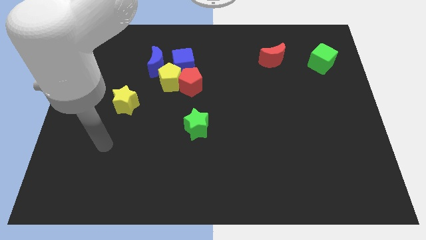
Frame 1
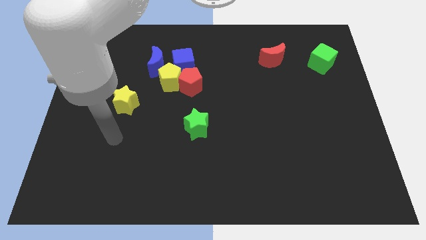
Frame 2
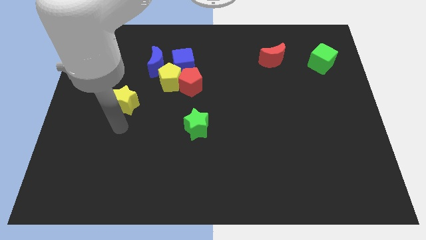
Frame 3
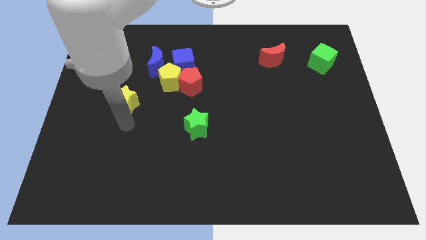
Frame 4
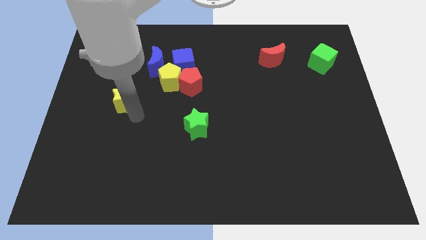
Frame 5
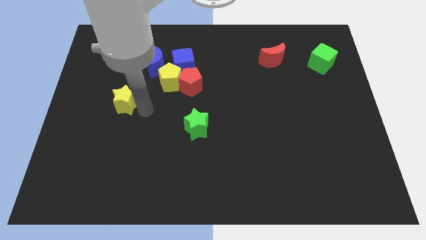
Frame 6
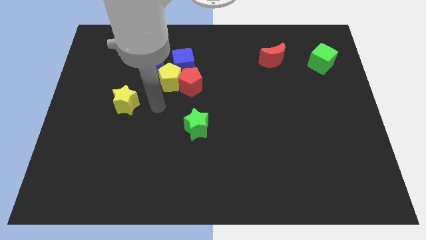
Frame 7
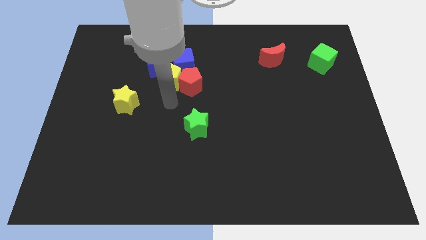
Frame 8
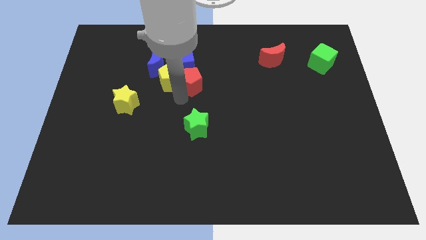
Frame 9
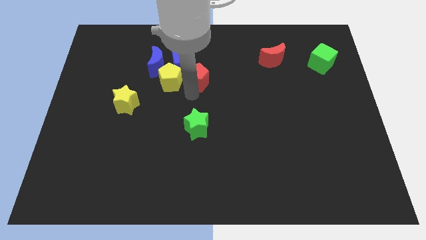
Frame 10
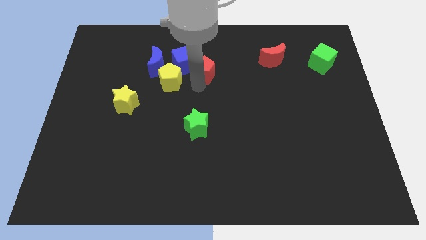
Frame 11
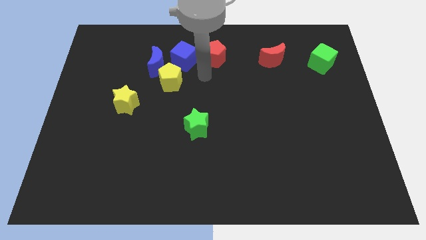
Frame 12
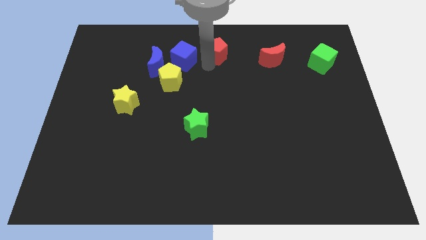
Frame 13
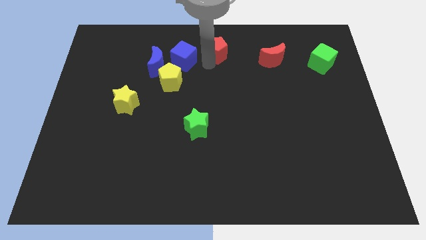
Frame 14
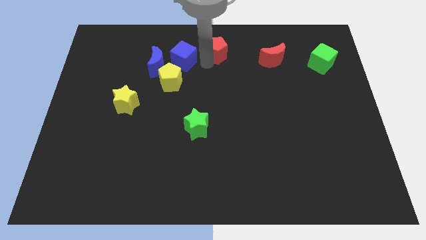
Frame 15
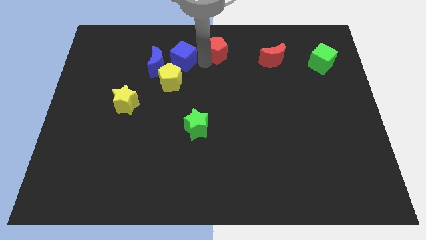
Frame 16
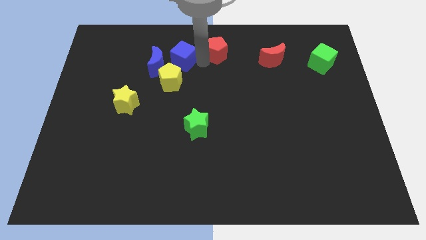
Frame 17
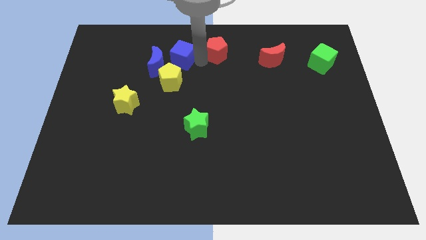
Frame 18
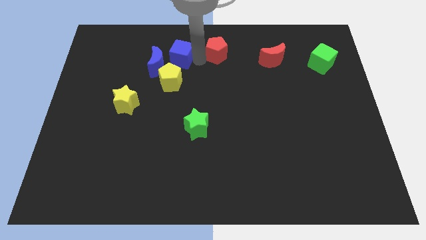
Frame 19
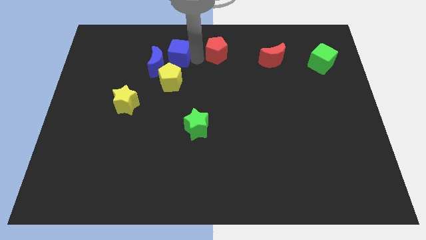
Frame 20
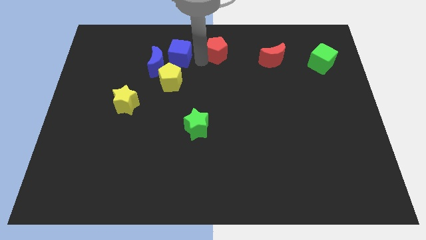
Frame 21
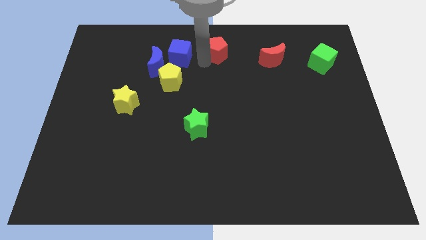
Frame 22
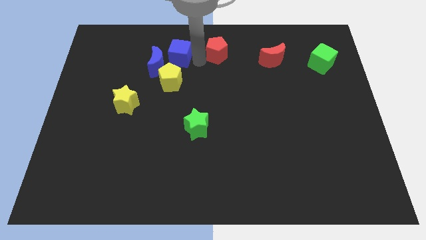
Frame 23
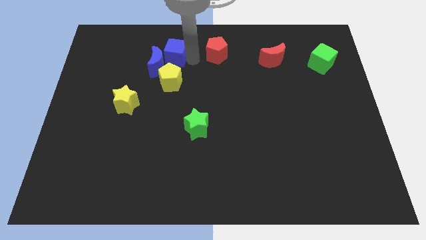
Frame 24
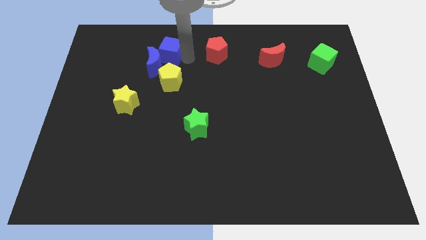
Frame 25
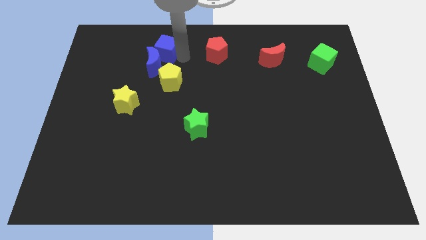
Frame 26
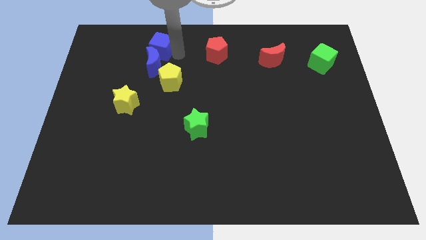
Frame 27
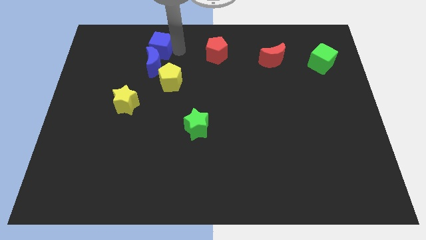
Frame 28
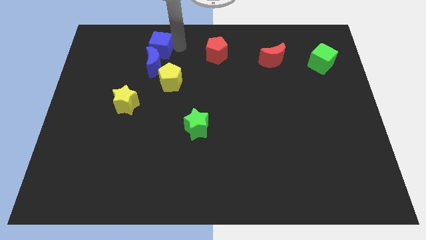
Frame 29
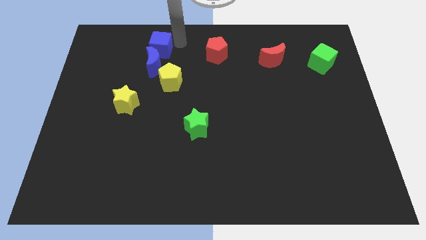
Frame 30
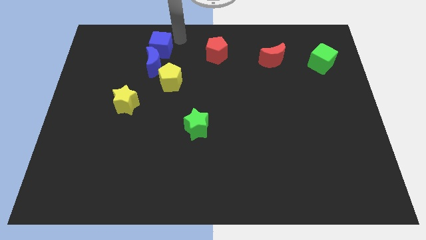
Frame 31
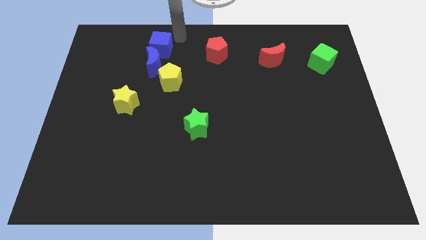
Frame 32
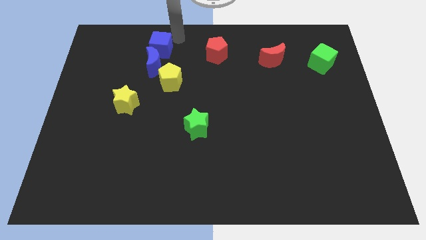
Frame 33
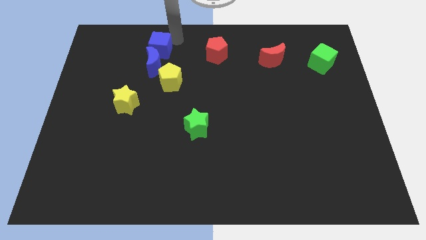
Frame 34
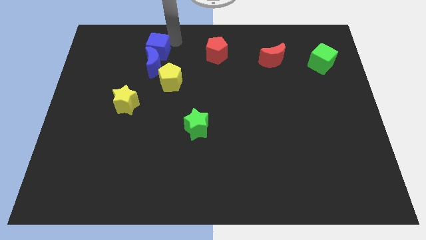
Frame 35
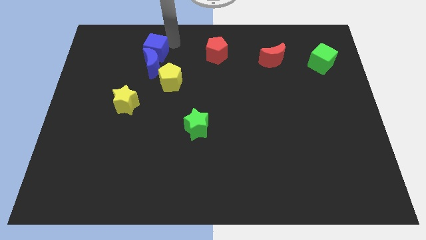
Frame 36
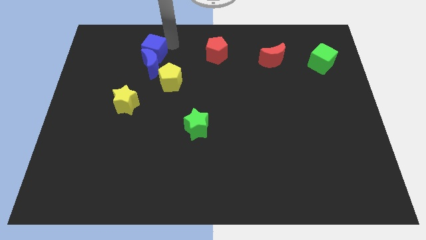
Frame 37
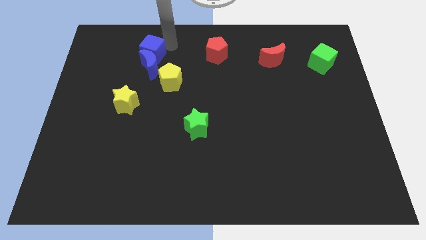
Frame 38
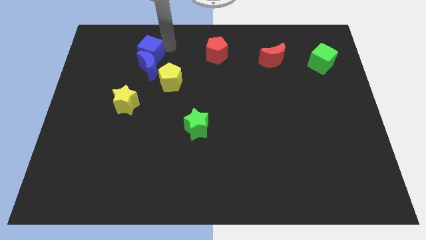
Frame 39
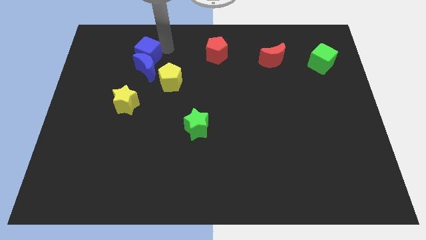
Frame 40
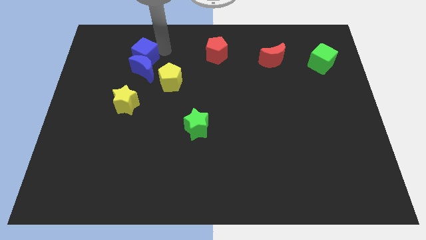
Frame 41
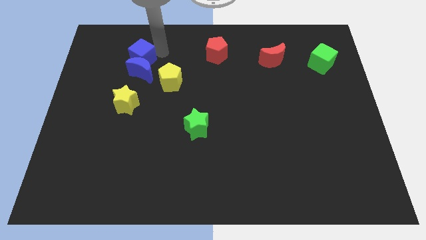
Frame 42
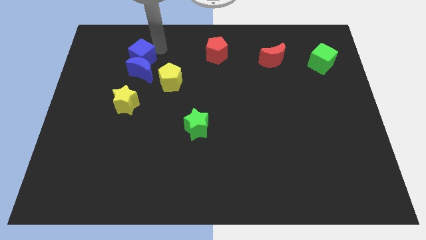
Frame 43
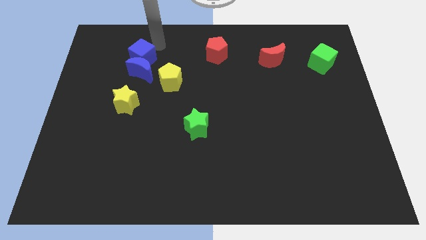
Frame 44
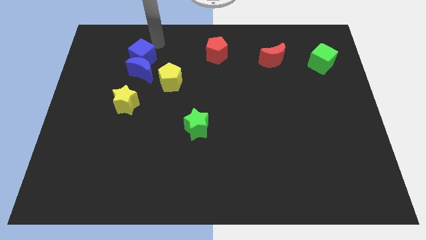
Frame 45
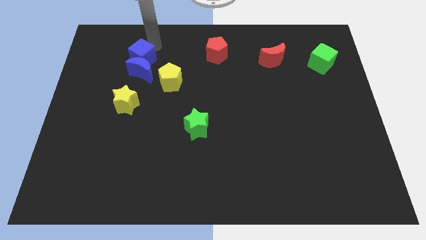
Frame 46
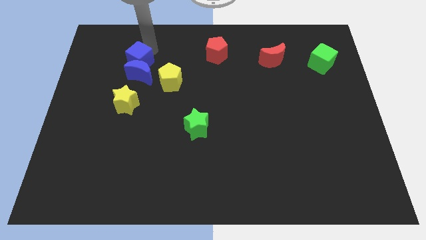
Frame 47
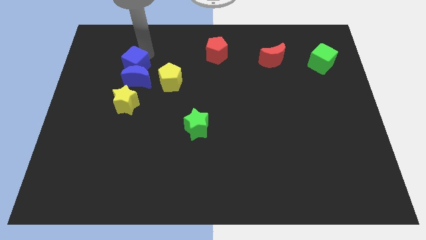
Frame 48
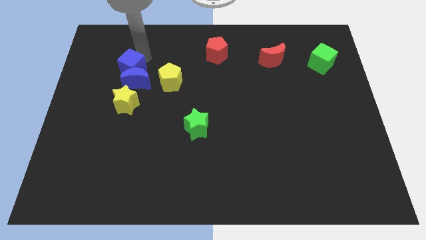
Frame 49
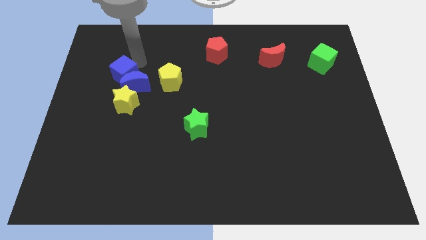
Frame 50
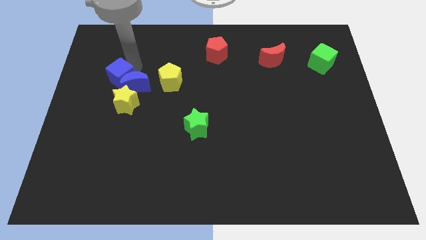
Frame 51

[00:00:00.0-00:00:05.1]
slide the blue cube to the top left side of the yellow star

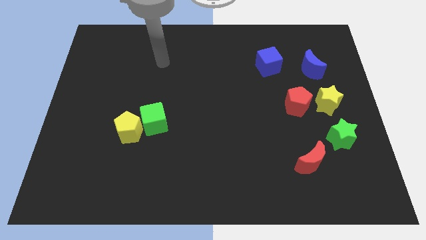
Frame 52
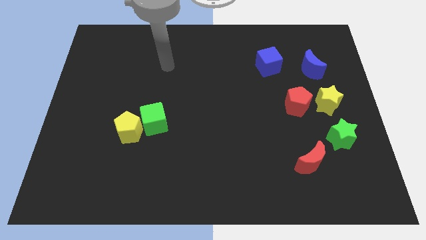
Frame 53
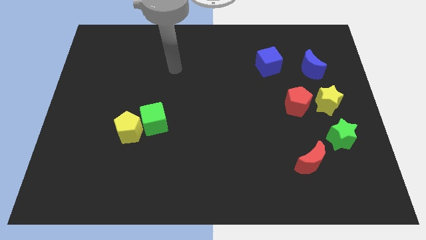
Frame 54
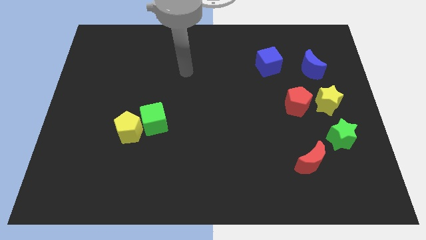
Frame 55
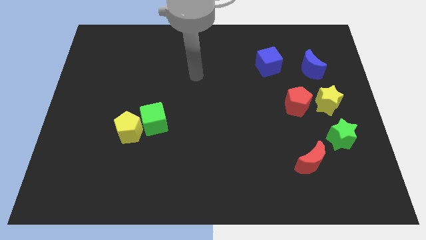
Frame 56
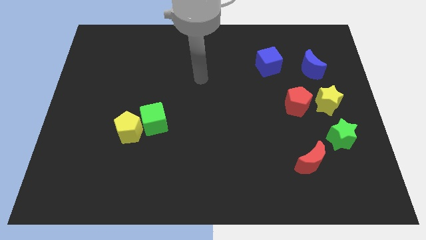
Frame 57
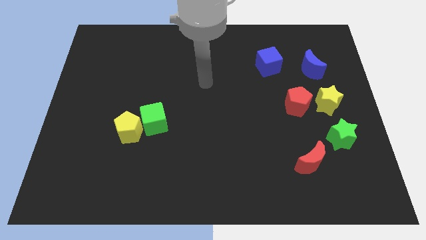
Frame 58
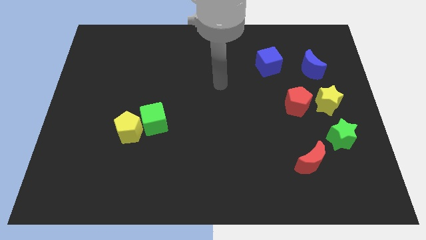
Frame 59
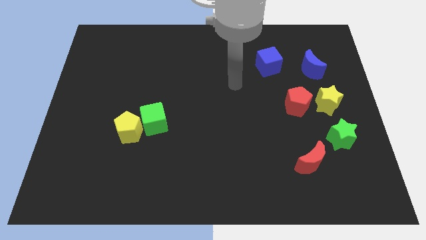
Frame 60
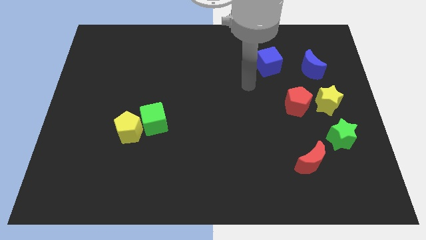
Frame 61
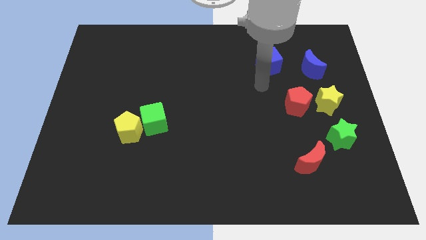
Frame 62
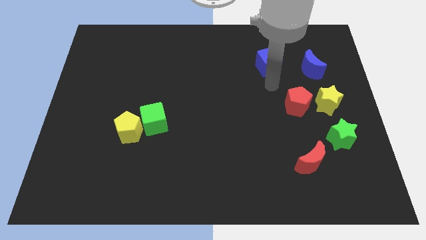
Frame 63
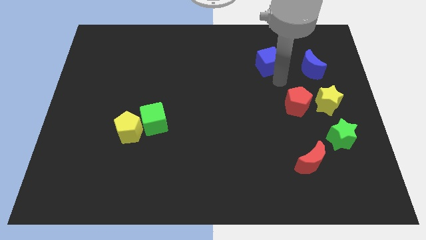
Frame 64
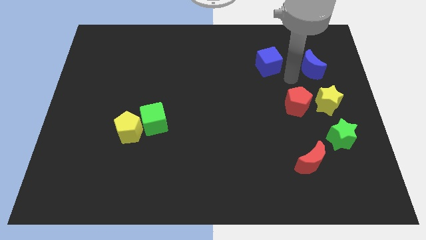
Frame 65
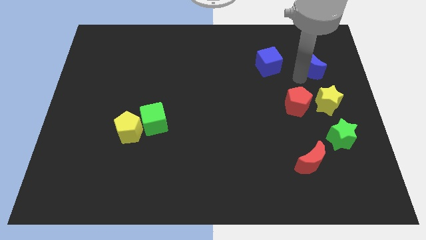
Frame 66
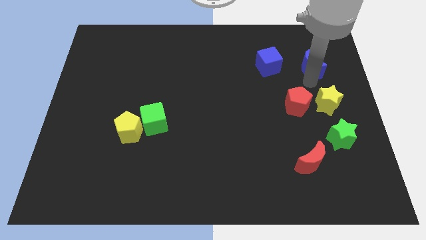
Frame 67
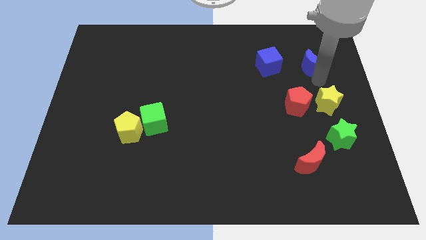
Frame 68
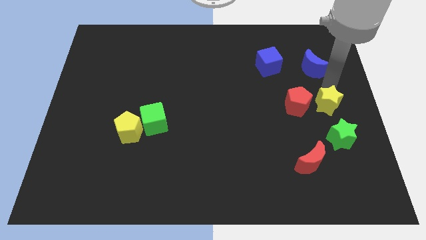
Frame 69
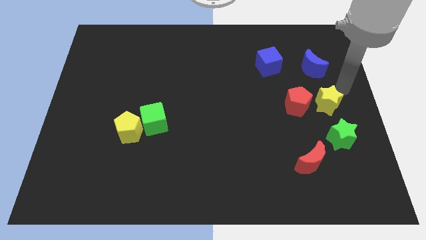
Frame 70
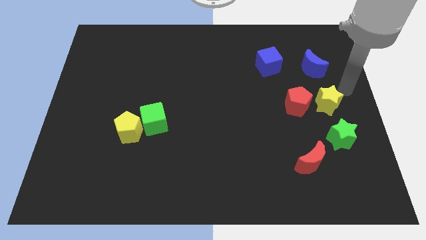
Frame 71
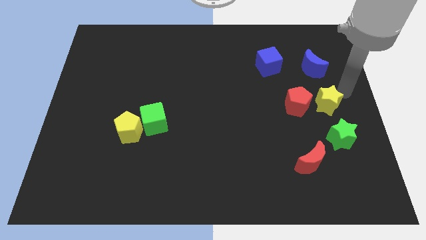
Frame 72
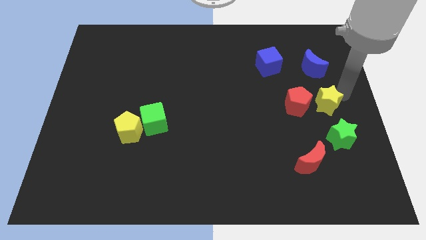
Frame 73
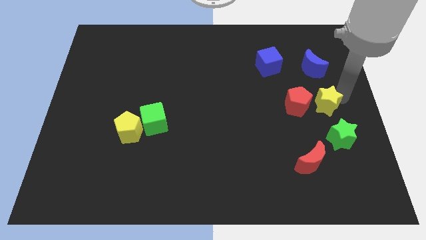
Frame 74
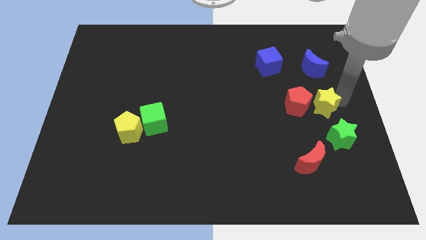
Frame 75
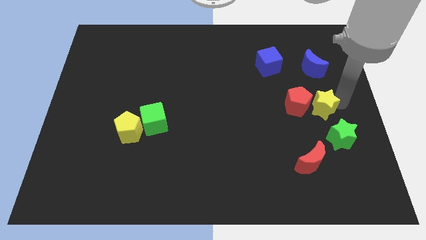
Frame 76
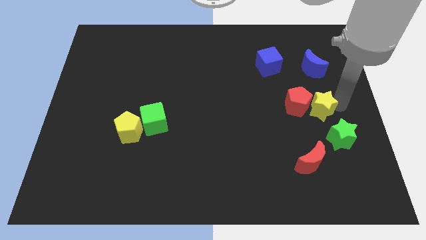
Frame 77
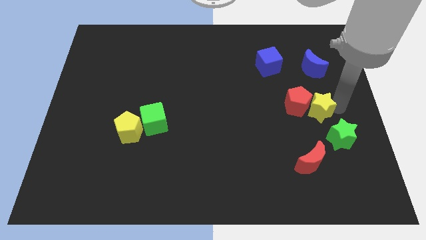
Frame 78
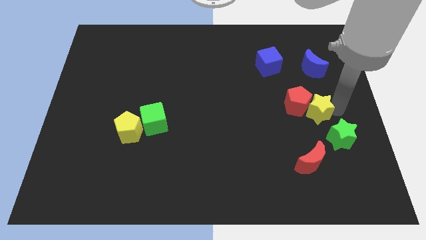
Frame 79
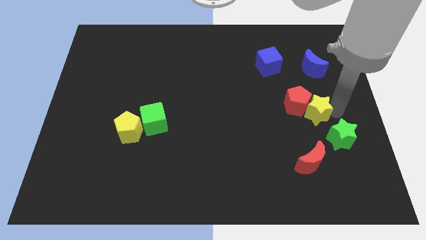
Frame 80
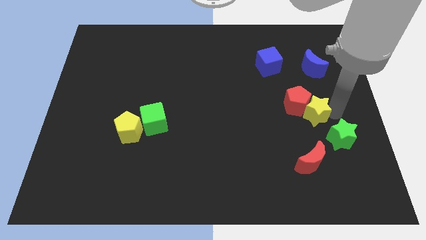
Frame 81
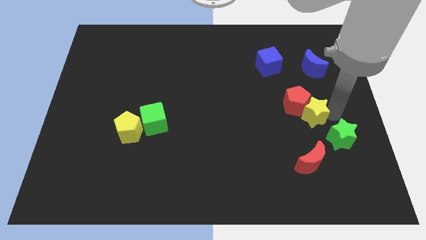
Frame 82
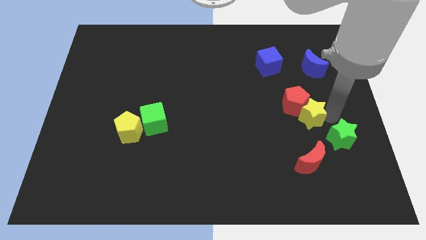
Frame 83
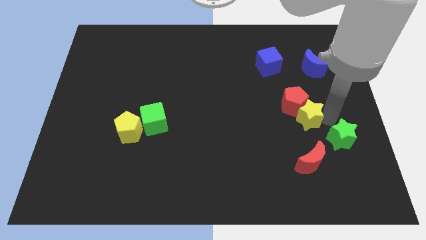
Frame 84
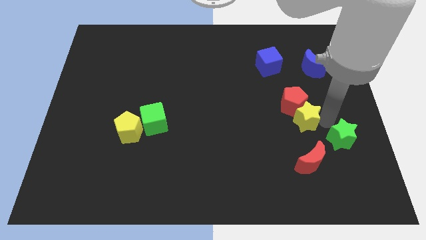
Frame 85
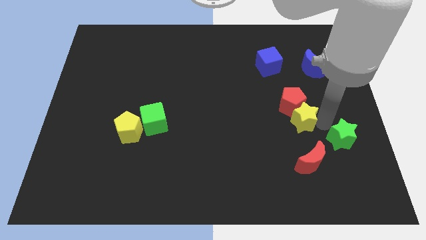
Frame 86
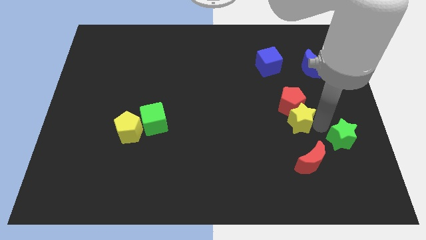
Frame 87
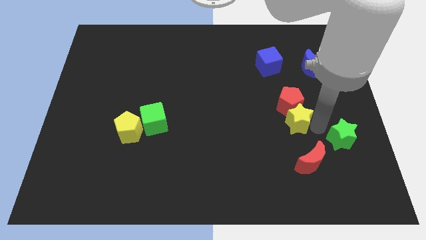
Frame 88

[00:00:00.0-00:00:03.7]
put the yellow star to the bottom left side of the red pentagon
